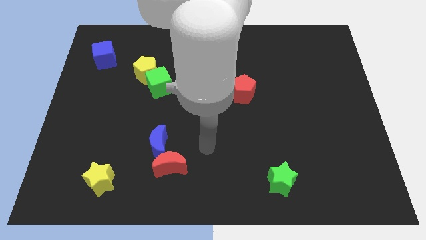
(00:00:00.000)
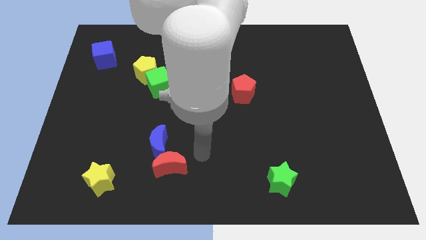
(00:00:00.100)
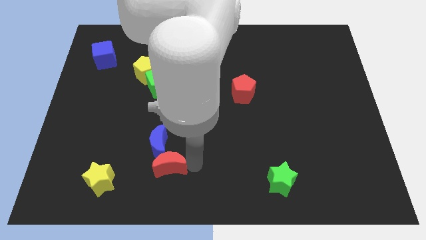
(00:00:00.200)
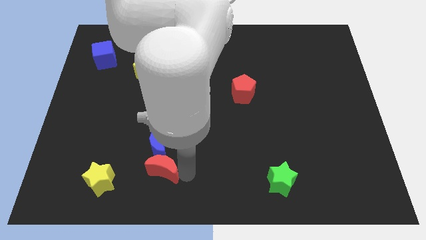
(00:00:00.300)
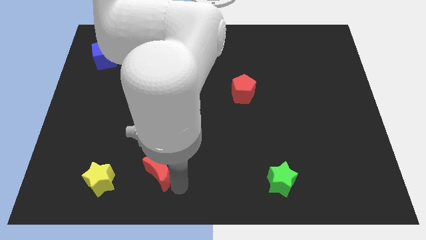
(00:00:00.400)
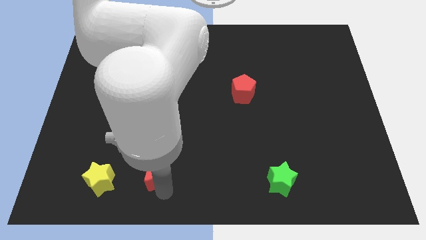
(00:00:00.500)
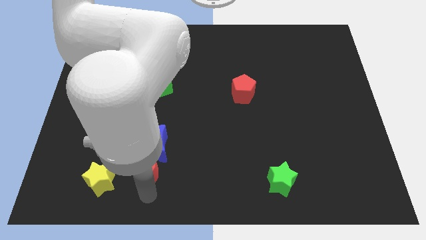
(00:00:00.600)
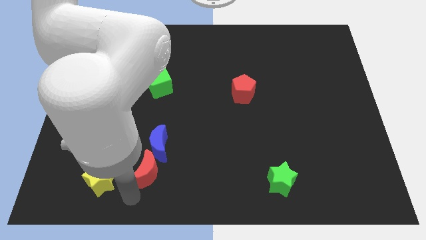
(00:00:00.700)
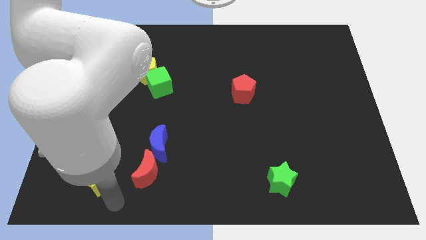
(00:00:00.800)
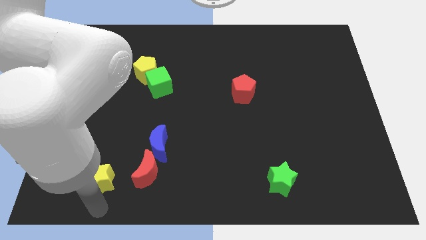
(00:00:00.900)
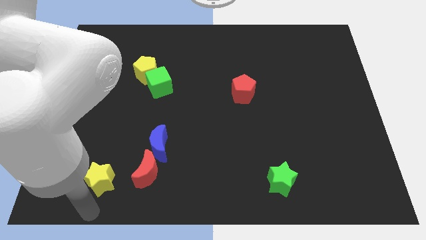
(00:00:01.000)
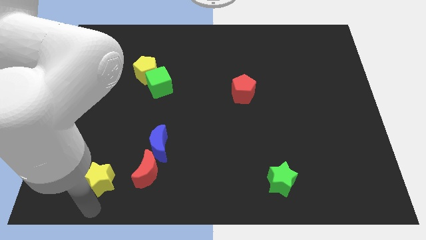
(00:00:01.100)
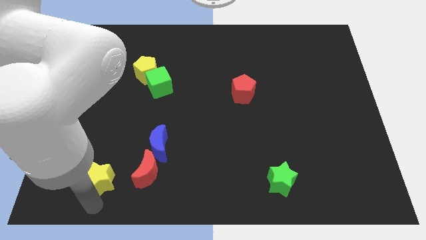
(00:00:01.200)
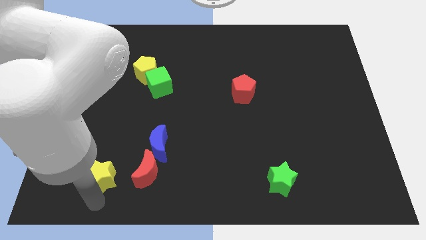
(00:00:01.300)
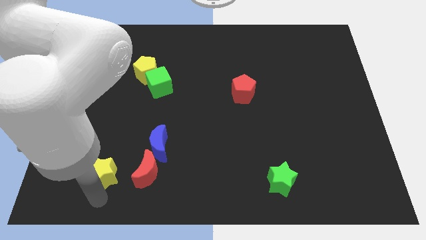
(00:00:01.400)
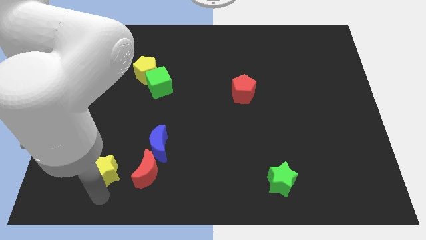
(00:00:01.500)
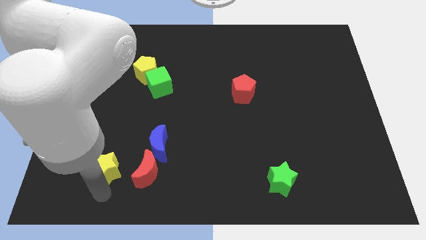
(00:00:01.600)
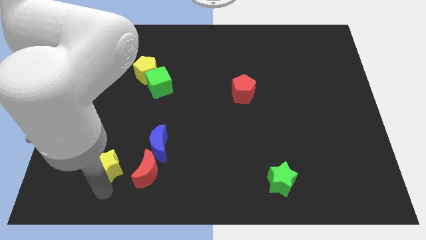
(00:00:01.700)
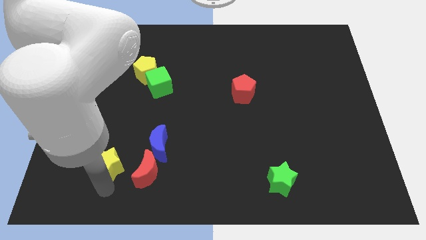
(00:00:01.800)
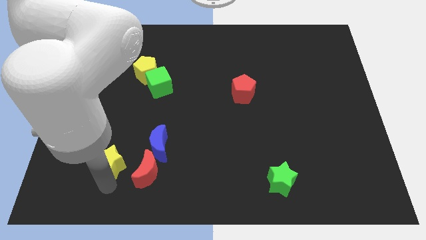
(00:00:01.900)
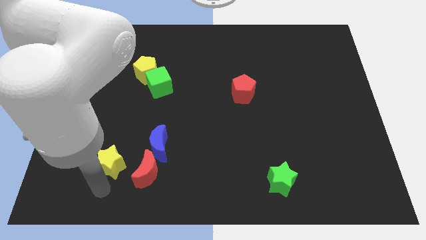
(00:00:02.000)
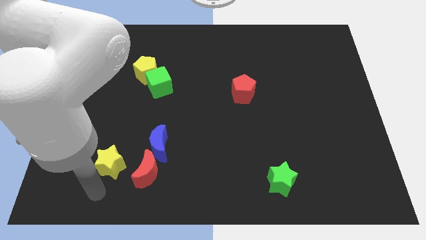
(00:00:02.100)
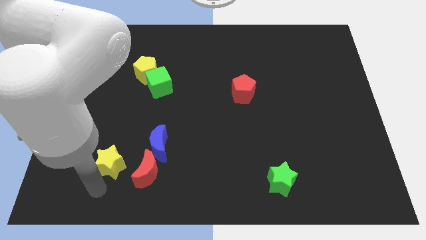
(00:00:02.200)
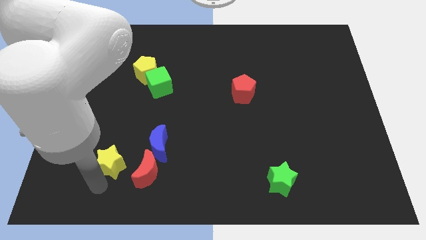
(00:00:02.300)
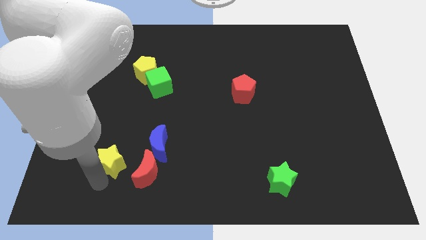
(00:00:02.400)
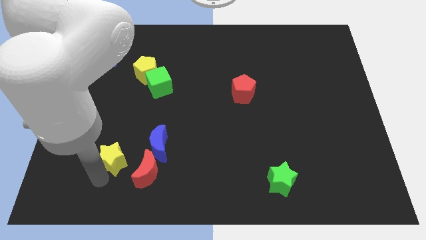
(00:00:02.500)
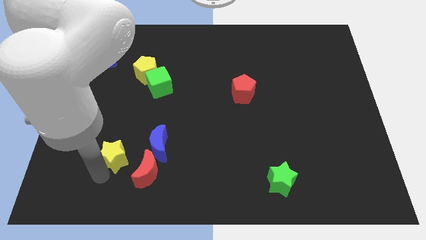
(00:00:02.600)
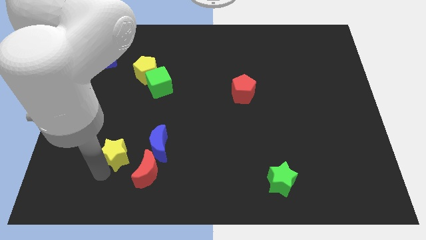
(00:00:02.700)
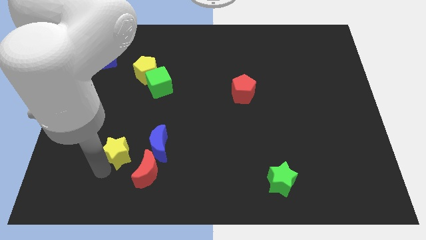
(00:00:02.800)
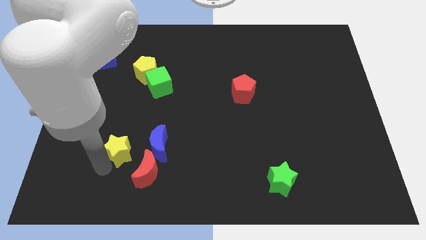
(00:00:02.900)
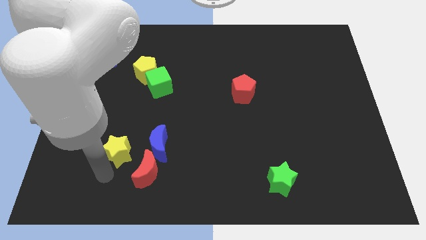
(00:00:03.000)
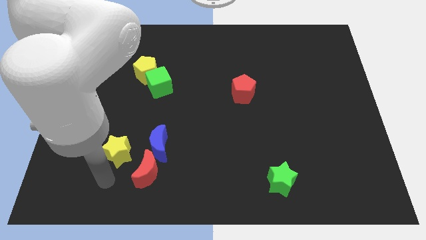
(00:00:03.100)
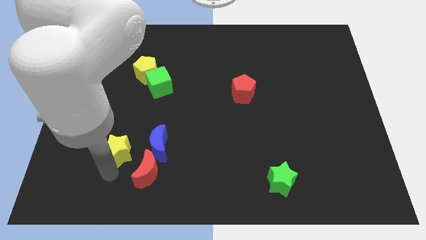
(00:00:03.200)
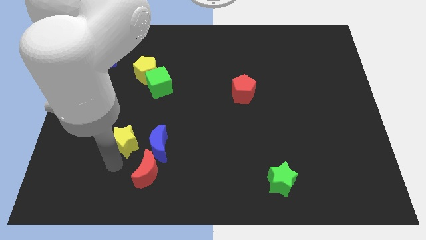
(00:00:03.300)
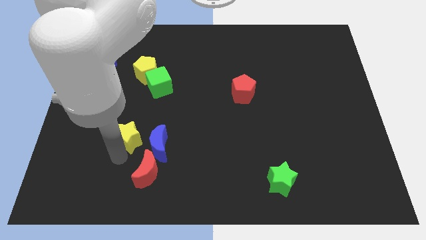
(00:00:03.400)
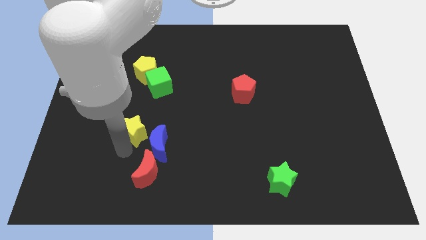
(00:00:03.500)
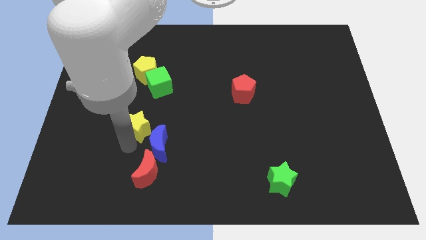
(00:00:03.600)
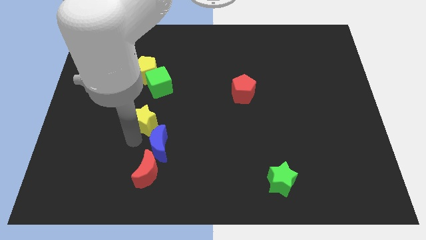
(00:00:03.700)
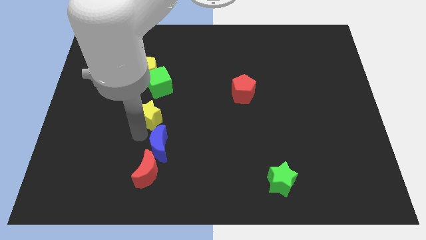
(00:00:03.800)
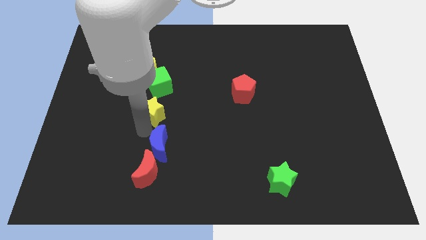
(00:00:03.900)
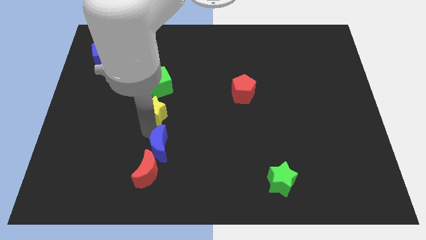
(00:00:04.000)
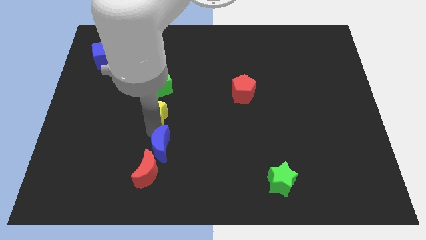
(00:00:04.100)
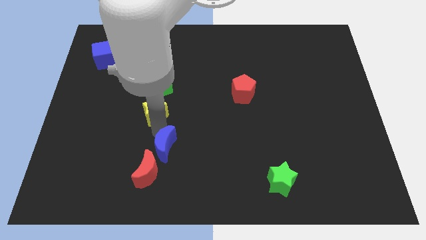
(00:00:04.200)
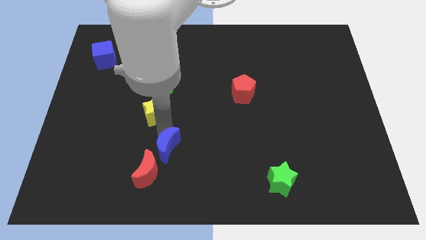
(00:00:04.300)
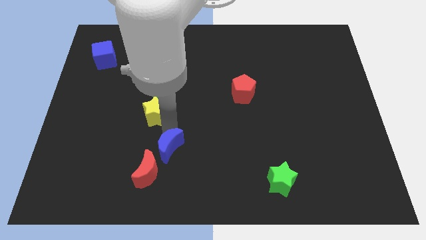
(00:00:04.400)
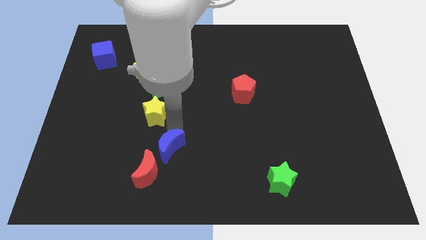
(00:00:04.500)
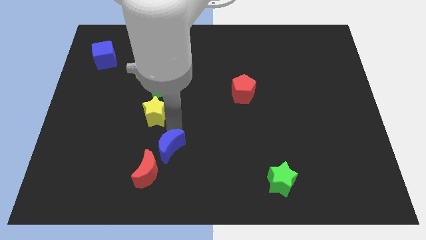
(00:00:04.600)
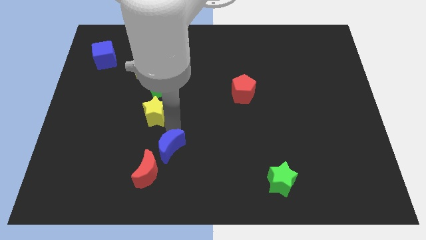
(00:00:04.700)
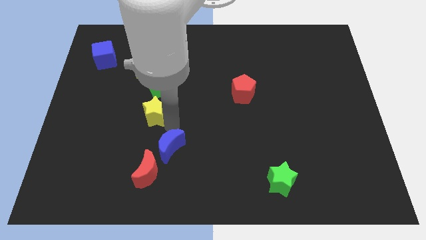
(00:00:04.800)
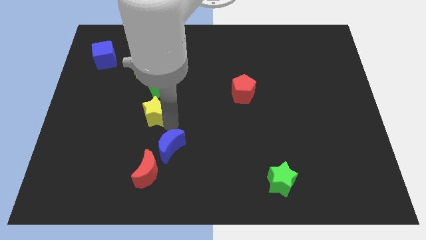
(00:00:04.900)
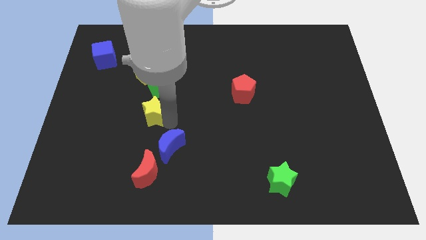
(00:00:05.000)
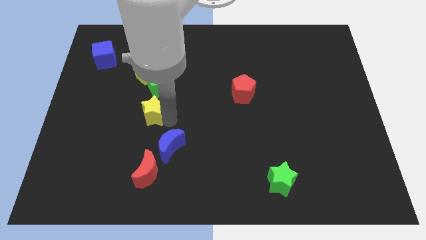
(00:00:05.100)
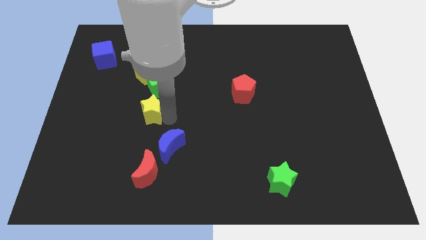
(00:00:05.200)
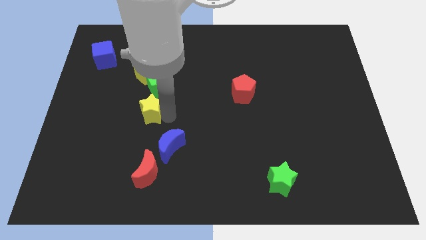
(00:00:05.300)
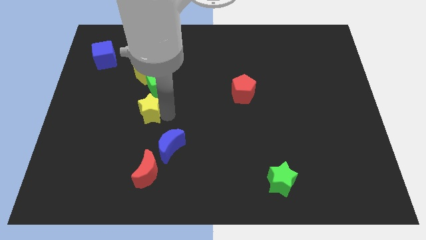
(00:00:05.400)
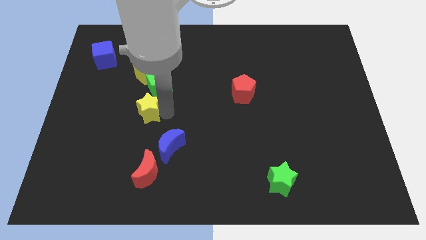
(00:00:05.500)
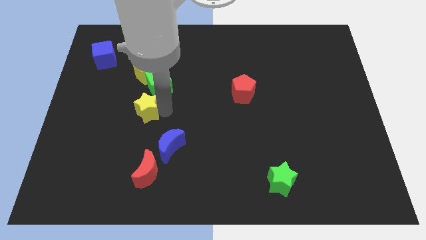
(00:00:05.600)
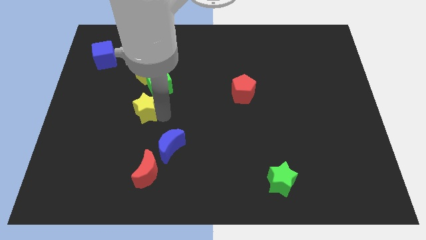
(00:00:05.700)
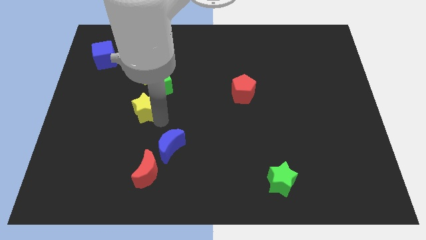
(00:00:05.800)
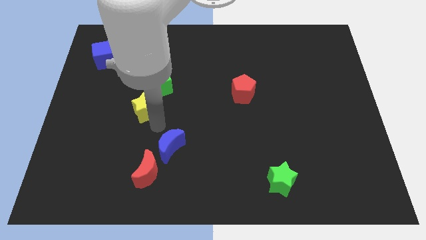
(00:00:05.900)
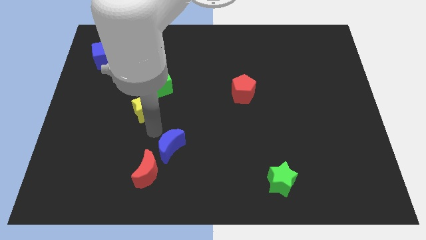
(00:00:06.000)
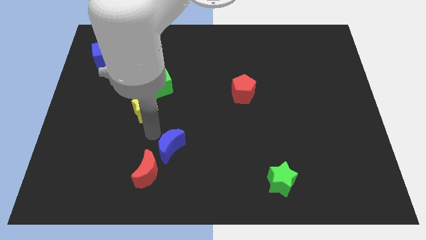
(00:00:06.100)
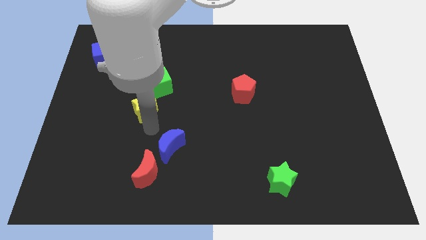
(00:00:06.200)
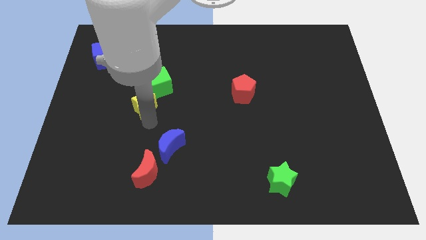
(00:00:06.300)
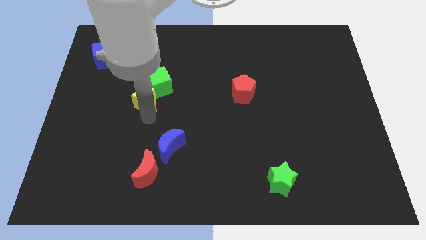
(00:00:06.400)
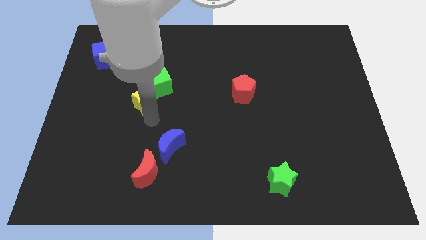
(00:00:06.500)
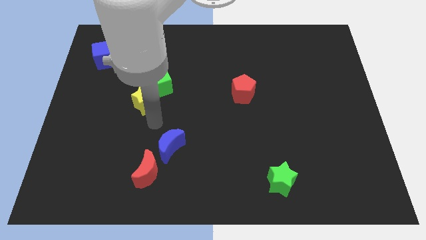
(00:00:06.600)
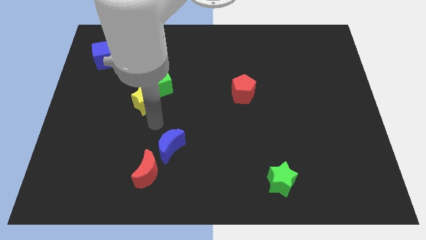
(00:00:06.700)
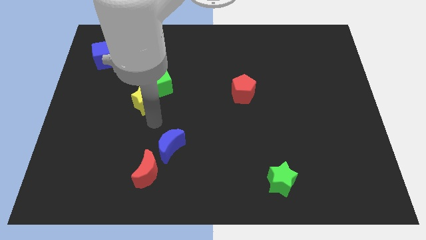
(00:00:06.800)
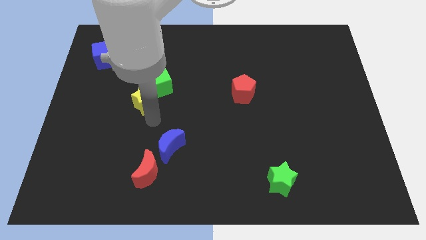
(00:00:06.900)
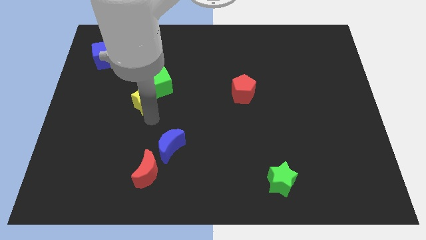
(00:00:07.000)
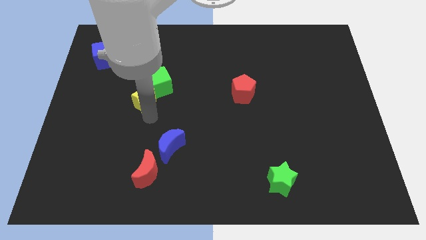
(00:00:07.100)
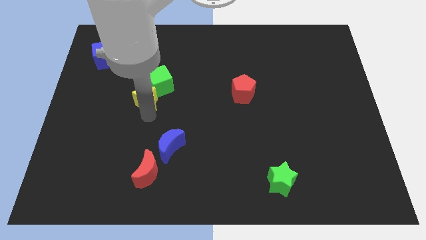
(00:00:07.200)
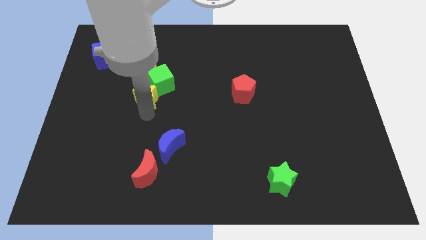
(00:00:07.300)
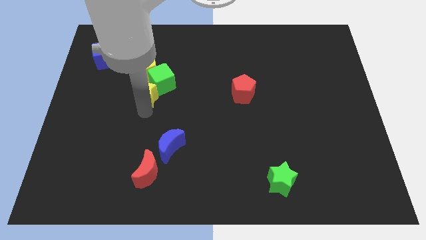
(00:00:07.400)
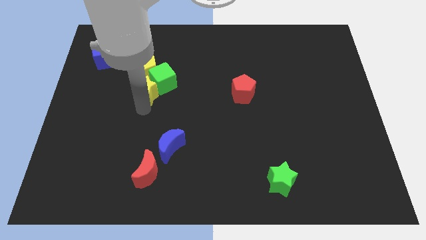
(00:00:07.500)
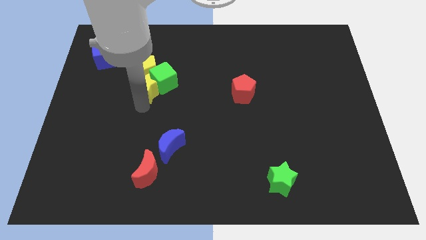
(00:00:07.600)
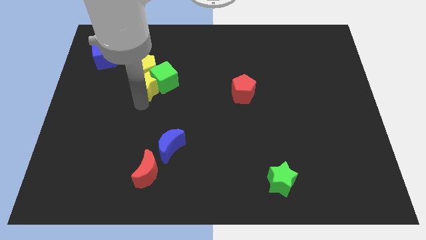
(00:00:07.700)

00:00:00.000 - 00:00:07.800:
slide the yellow star to the yellow pentagon
